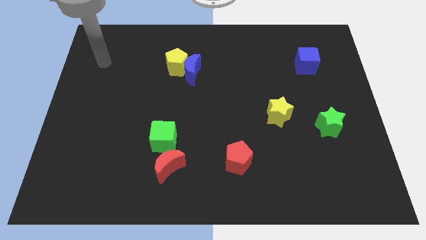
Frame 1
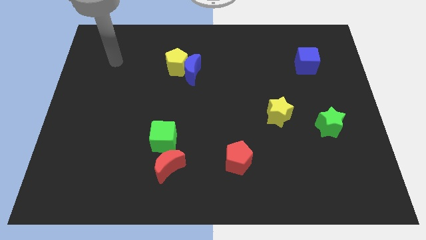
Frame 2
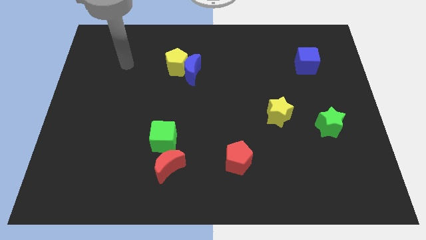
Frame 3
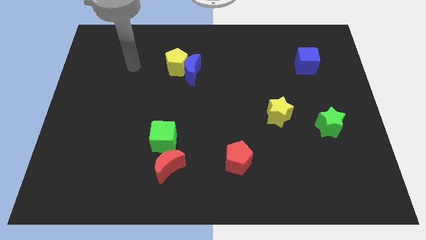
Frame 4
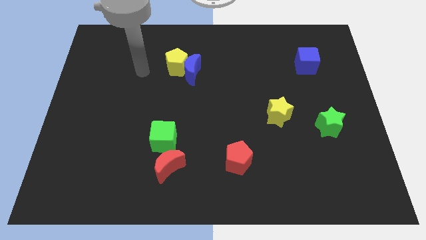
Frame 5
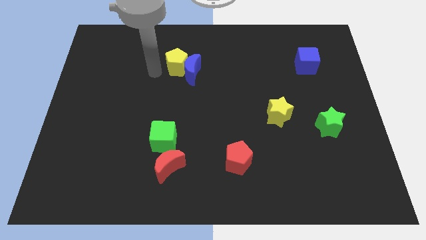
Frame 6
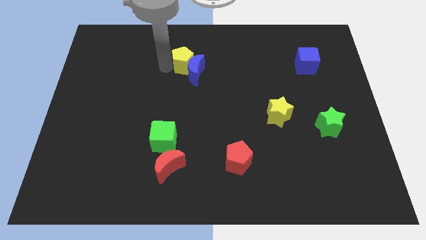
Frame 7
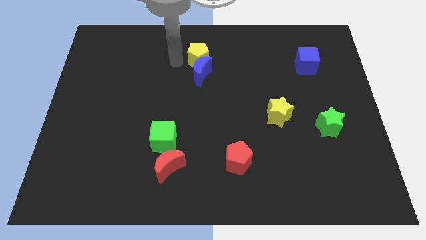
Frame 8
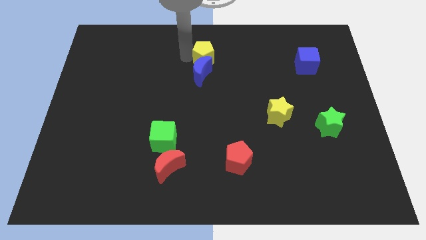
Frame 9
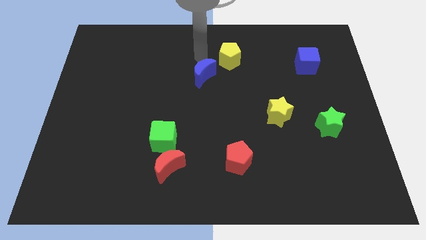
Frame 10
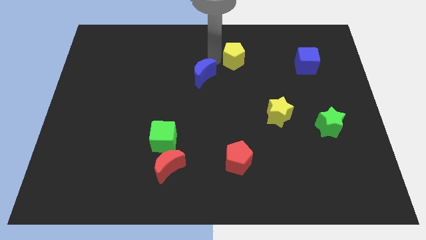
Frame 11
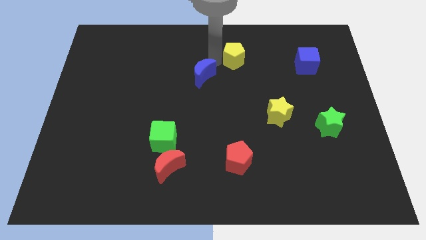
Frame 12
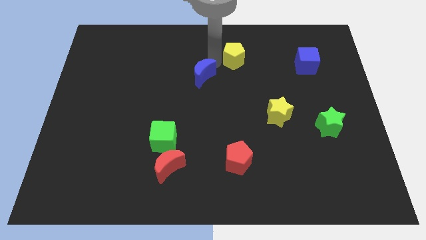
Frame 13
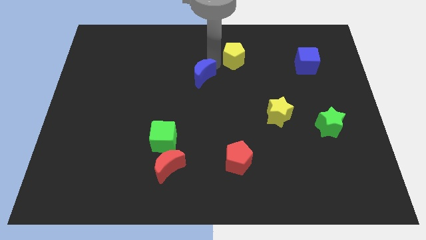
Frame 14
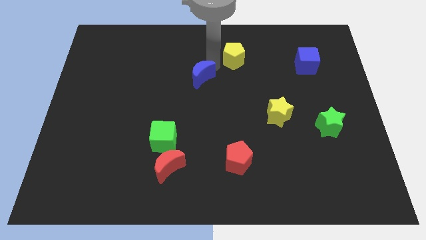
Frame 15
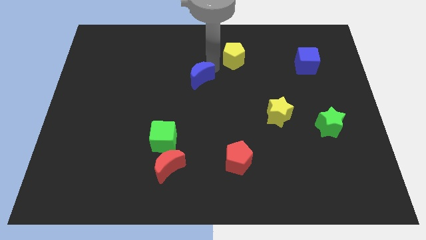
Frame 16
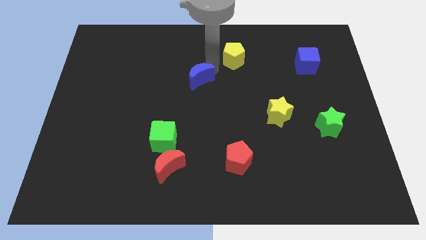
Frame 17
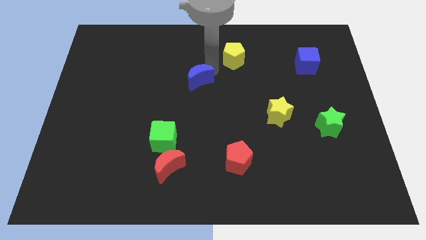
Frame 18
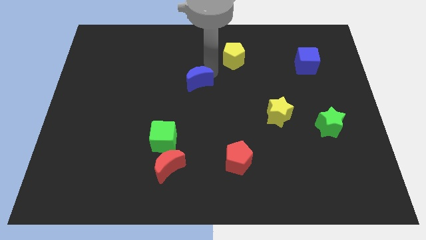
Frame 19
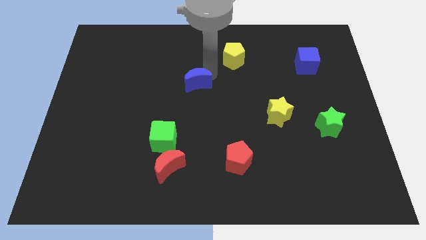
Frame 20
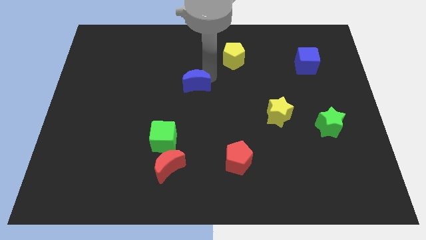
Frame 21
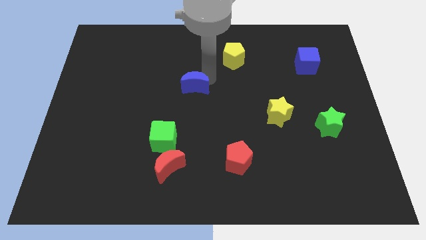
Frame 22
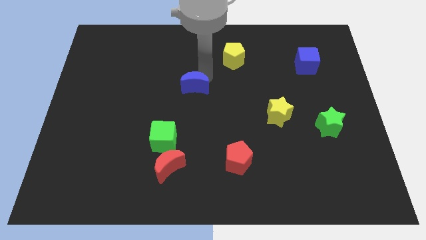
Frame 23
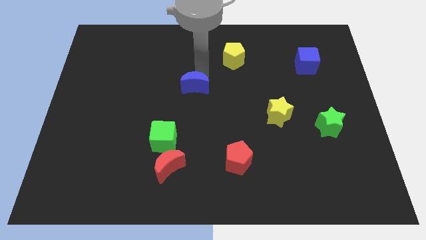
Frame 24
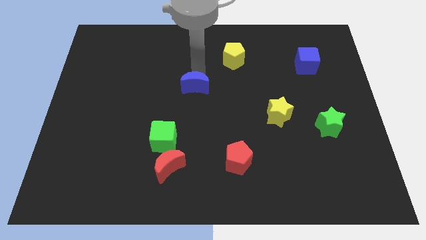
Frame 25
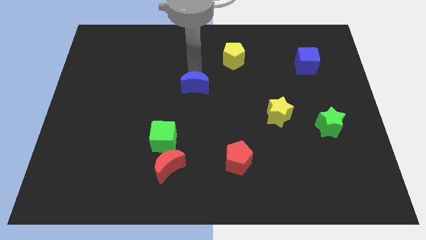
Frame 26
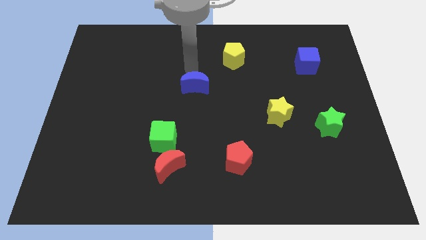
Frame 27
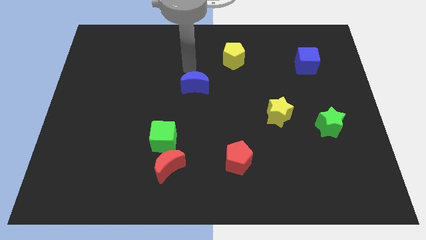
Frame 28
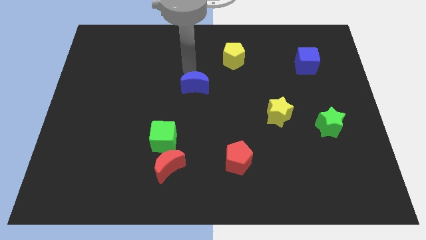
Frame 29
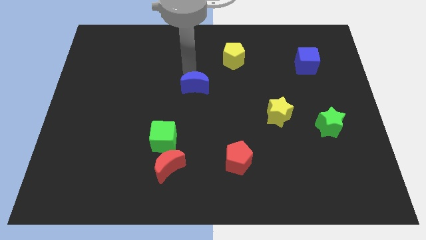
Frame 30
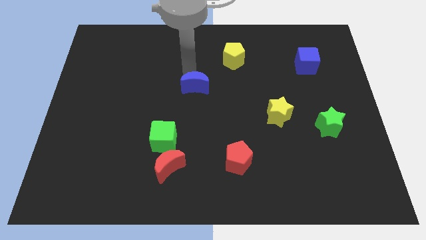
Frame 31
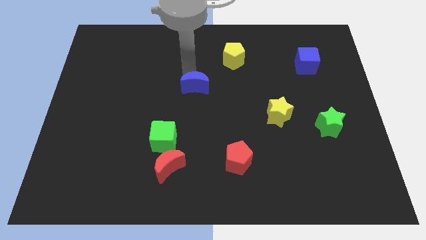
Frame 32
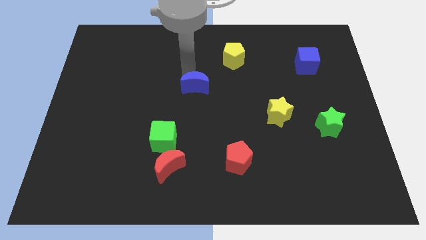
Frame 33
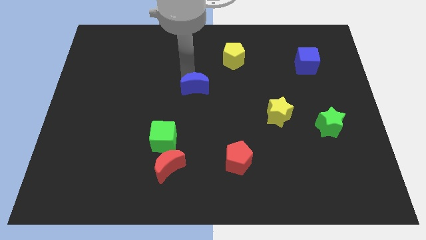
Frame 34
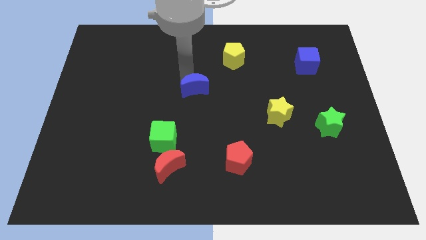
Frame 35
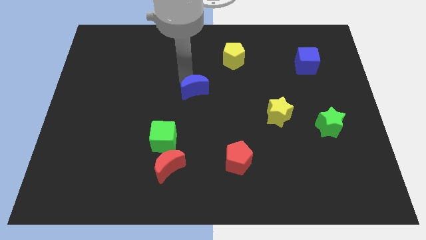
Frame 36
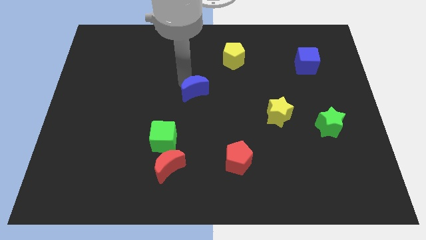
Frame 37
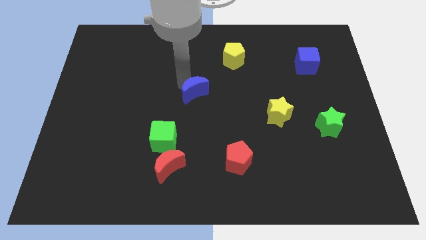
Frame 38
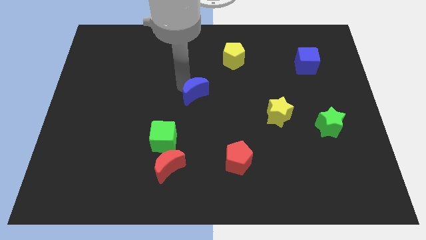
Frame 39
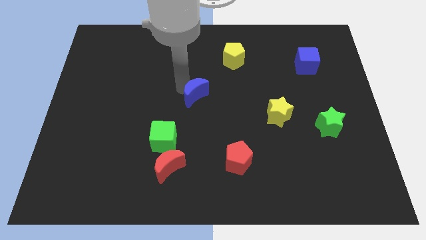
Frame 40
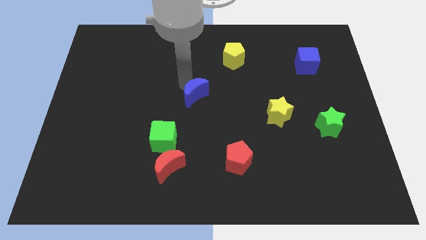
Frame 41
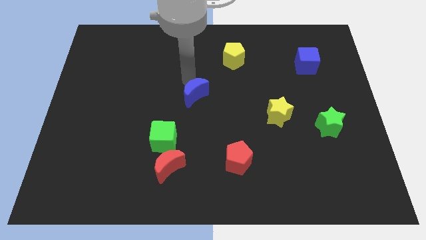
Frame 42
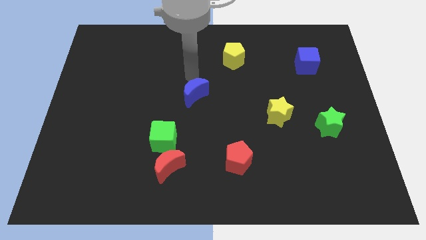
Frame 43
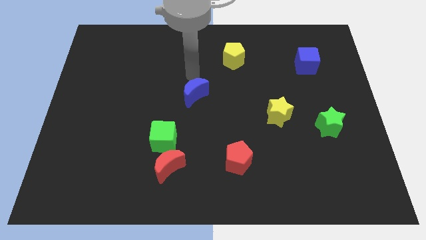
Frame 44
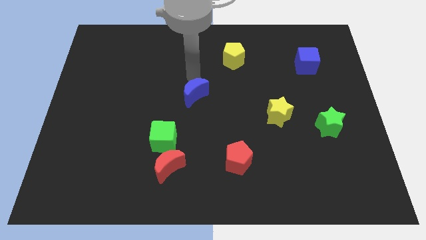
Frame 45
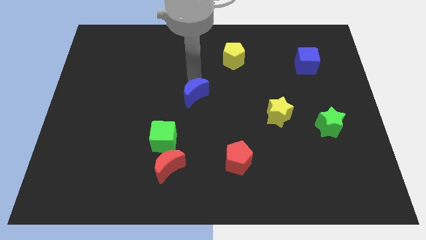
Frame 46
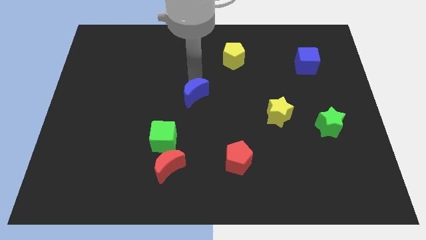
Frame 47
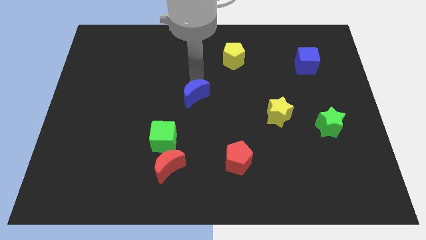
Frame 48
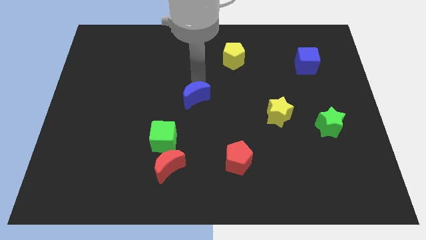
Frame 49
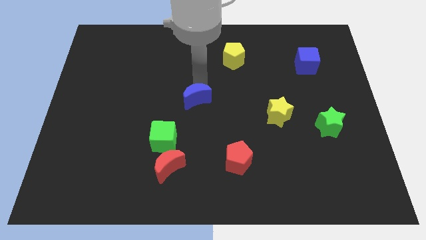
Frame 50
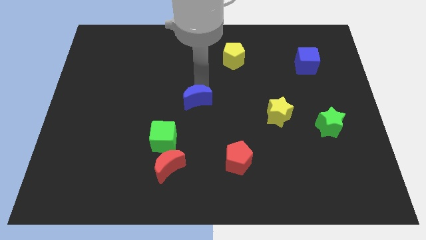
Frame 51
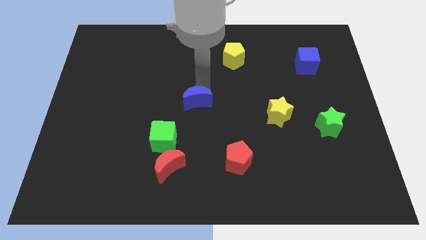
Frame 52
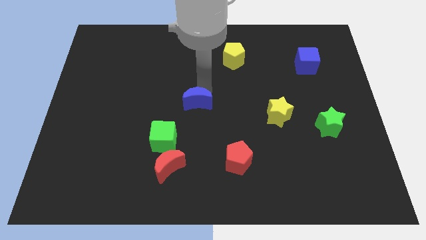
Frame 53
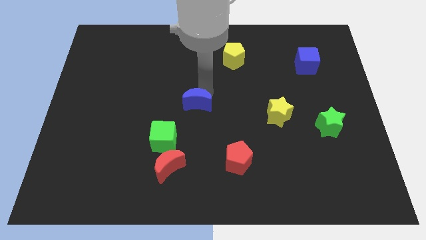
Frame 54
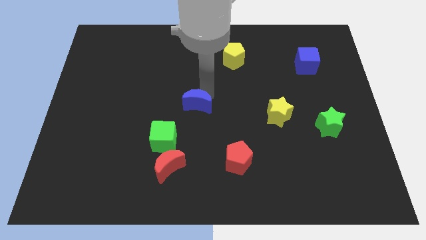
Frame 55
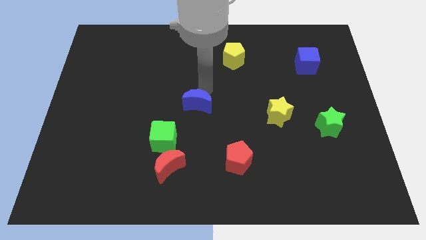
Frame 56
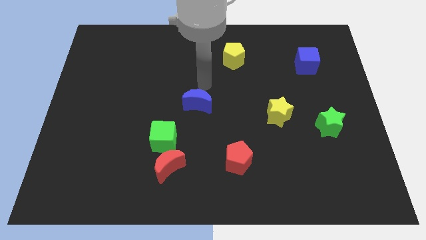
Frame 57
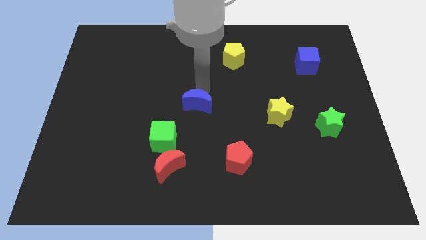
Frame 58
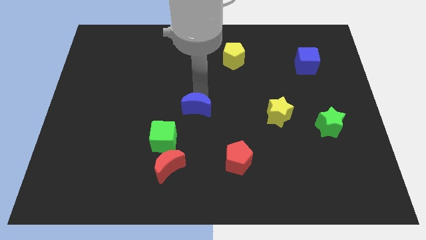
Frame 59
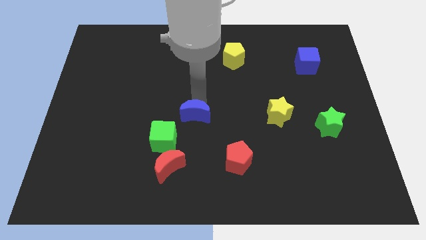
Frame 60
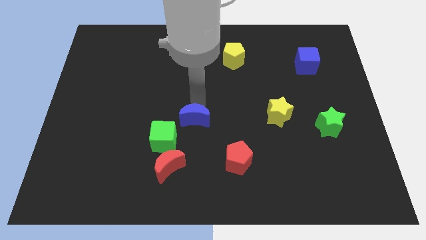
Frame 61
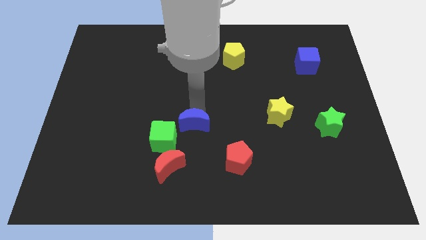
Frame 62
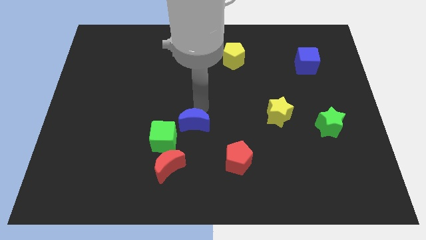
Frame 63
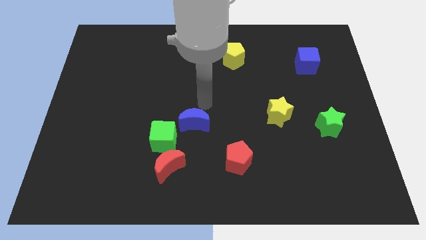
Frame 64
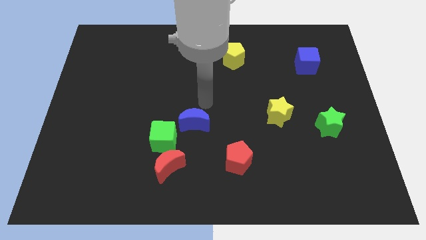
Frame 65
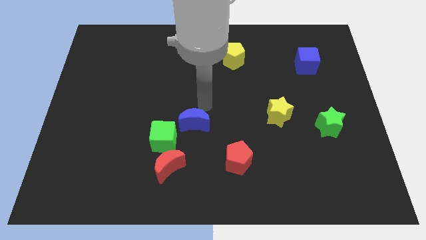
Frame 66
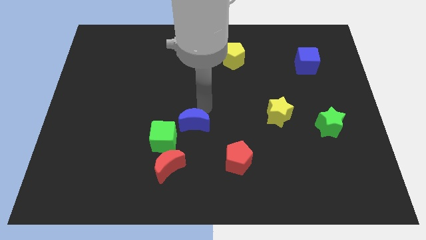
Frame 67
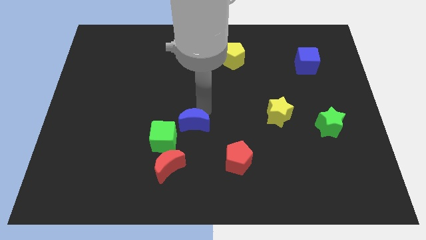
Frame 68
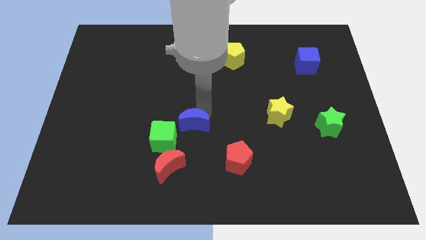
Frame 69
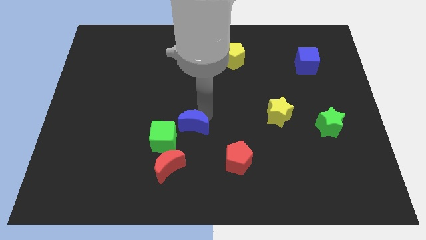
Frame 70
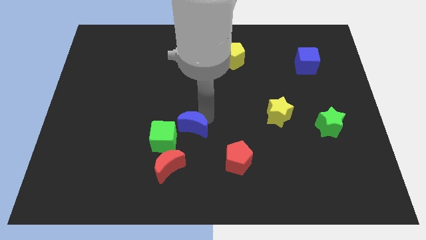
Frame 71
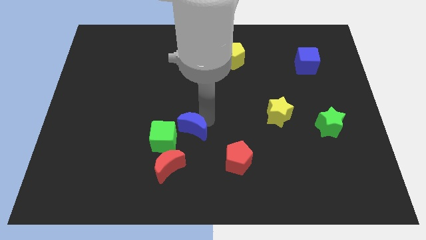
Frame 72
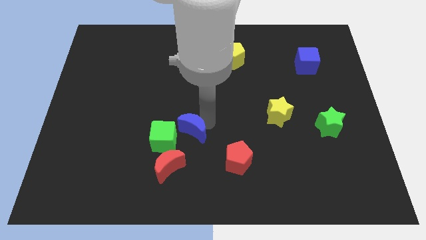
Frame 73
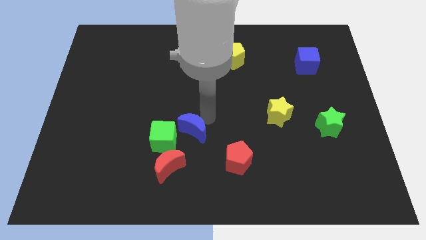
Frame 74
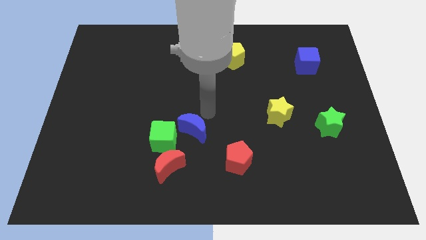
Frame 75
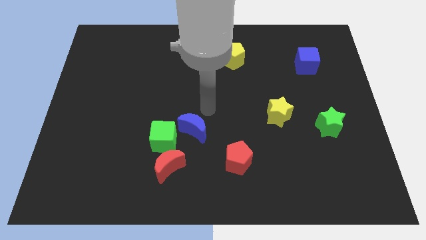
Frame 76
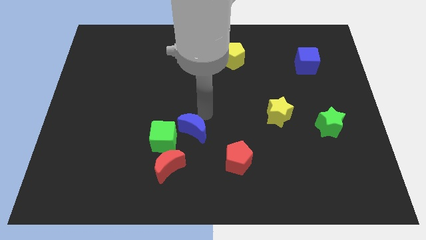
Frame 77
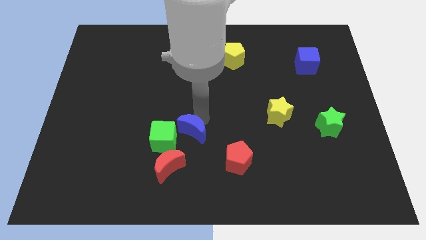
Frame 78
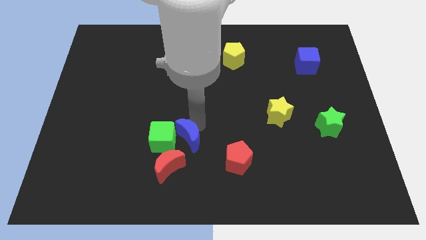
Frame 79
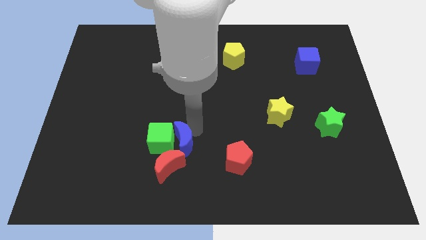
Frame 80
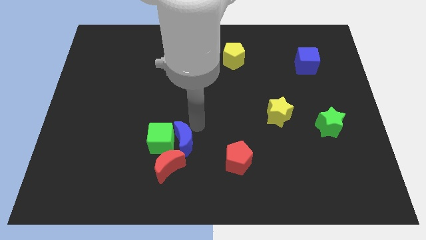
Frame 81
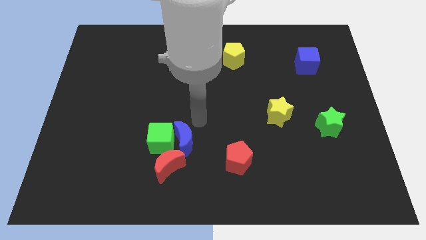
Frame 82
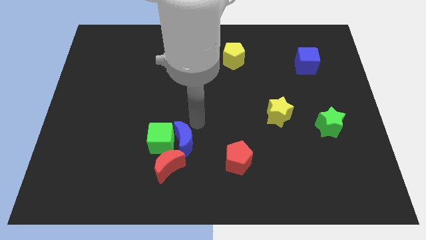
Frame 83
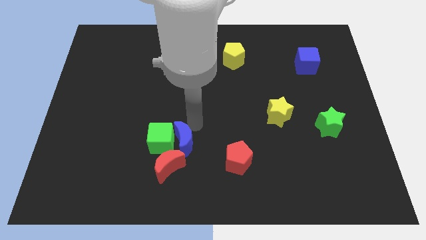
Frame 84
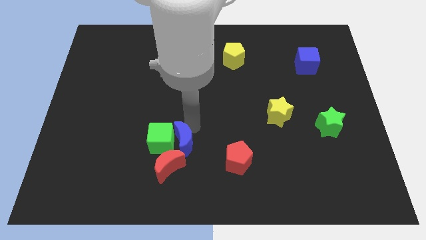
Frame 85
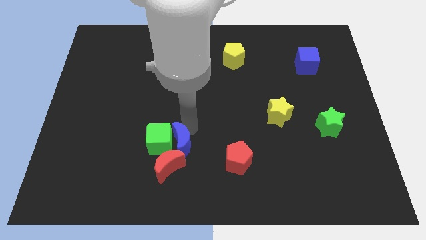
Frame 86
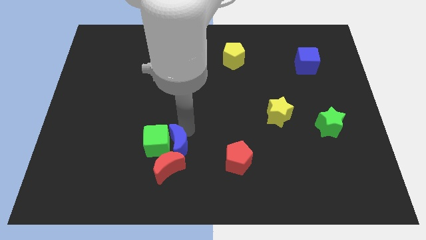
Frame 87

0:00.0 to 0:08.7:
move the blue moon close to the red moon
